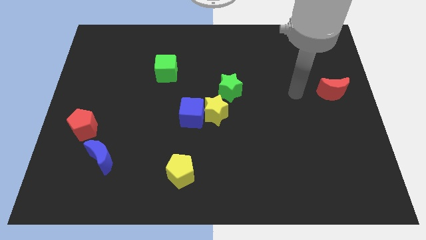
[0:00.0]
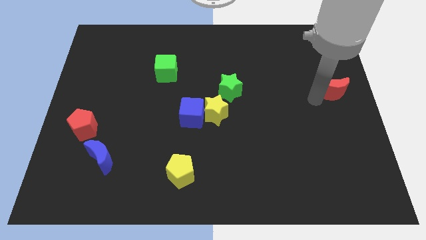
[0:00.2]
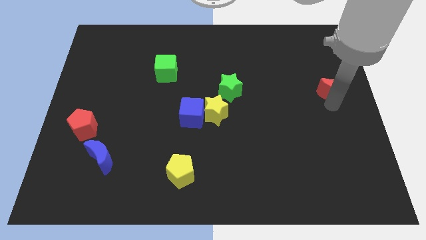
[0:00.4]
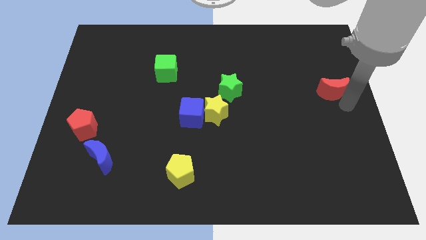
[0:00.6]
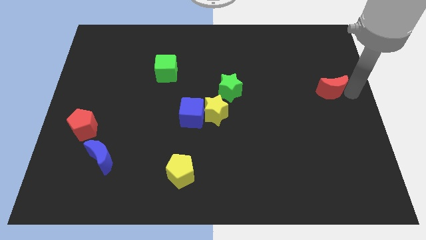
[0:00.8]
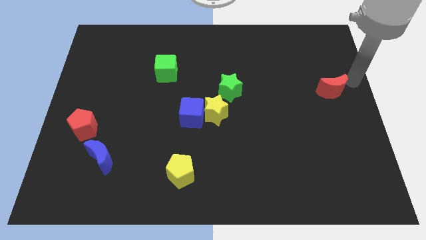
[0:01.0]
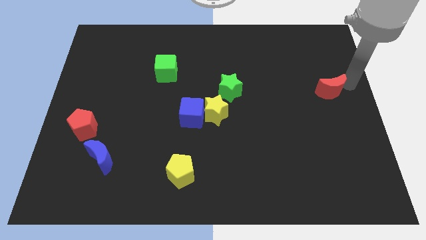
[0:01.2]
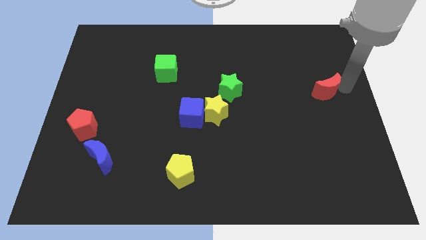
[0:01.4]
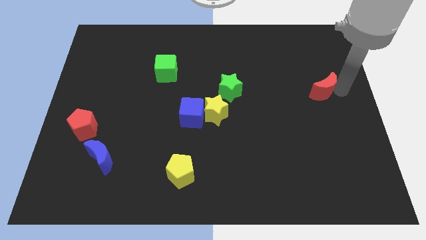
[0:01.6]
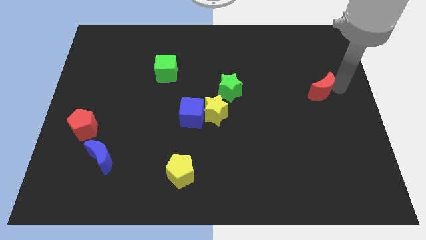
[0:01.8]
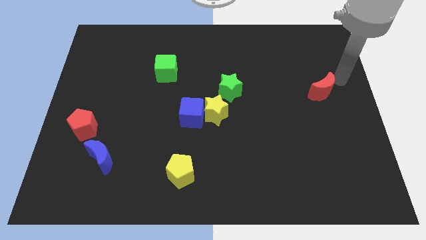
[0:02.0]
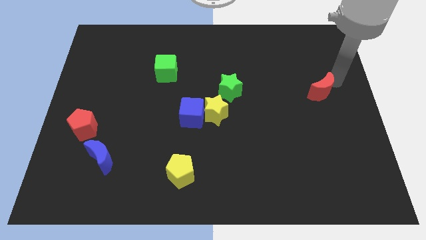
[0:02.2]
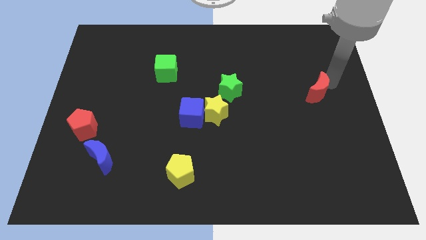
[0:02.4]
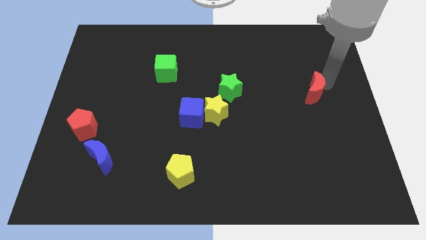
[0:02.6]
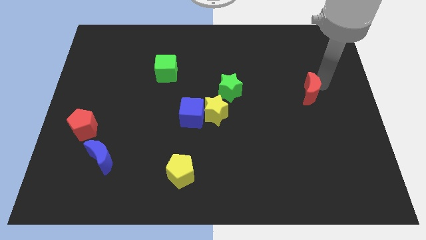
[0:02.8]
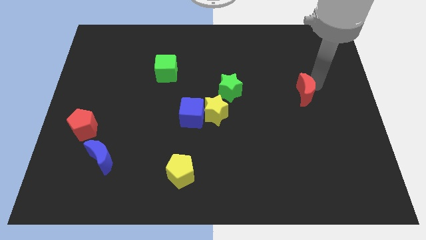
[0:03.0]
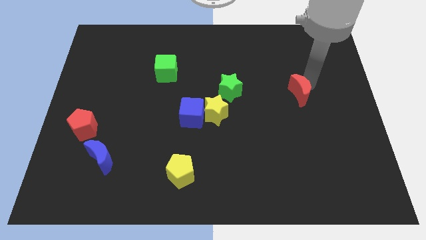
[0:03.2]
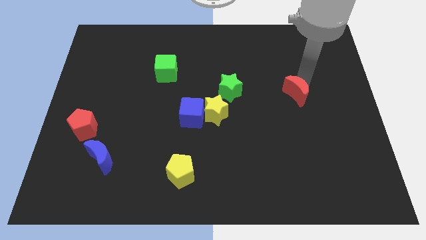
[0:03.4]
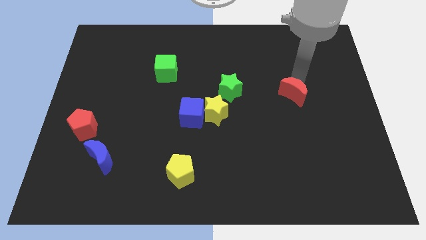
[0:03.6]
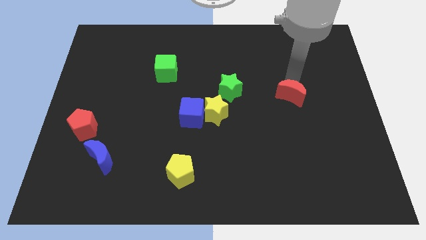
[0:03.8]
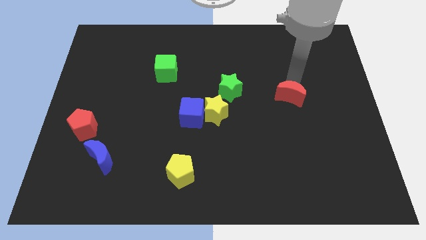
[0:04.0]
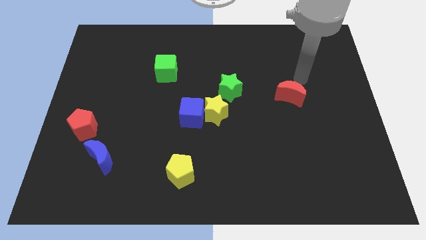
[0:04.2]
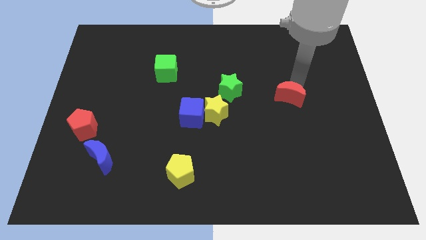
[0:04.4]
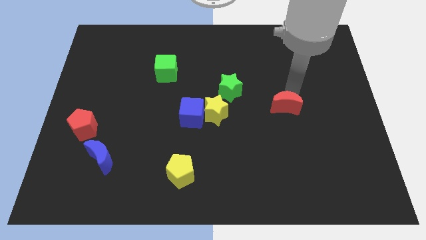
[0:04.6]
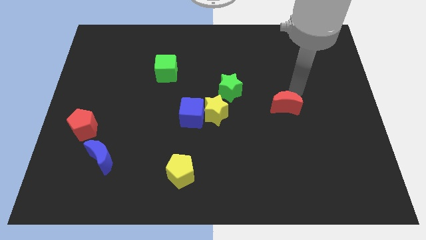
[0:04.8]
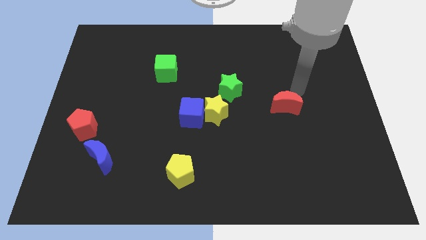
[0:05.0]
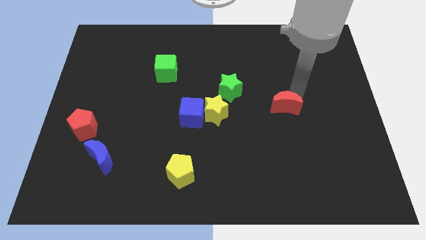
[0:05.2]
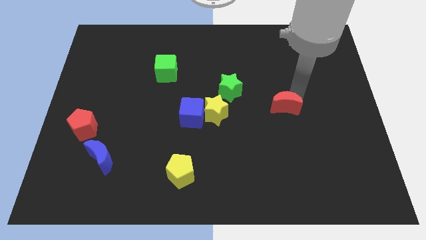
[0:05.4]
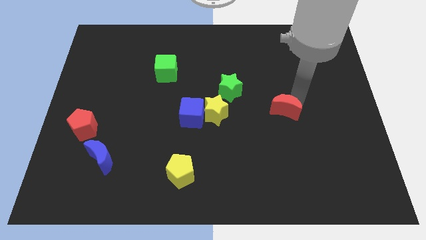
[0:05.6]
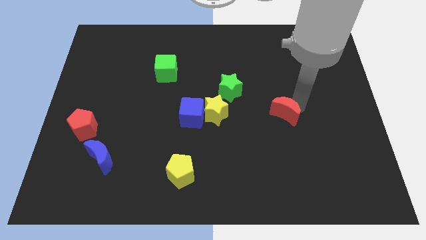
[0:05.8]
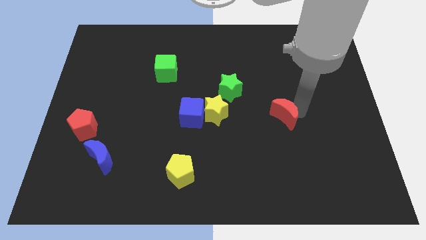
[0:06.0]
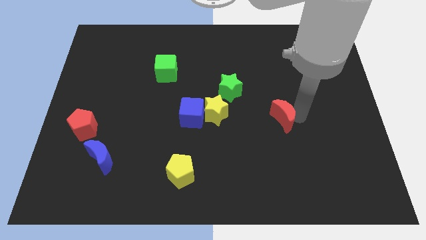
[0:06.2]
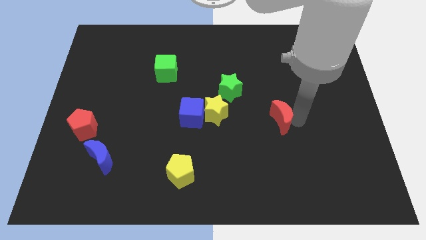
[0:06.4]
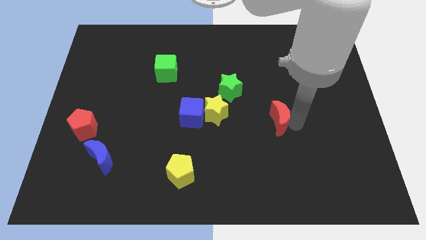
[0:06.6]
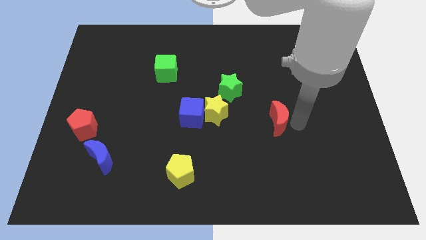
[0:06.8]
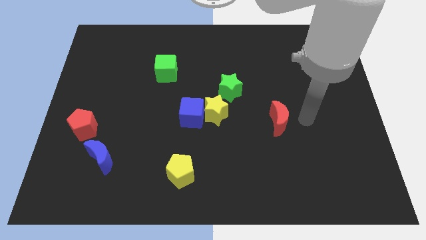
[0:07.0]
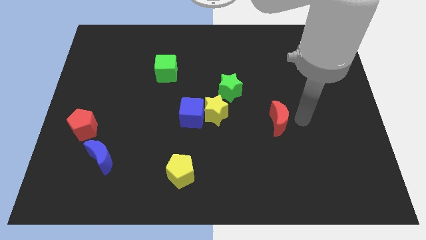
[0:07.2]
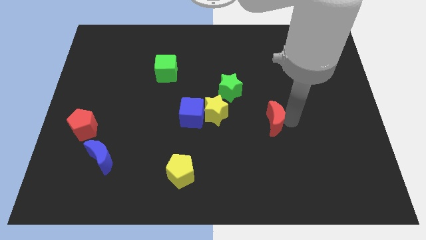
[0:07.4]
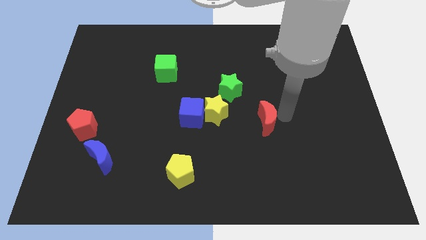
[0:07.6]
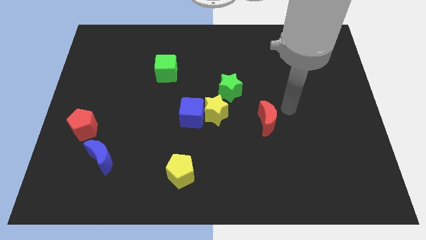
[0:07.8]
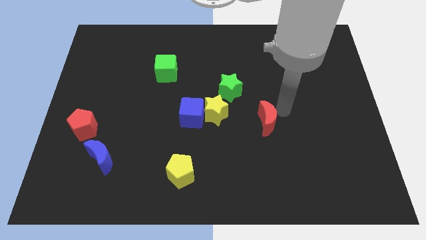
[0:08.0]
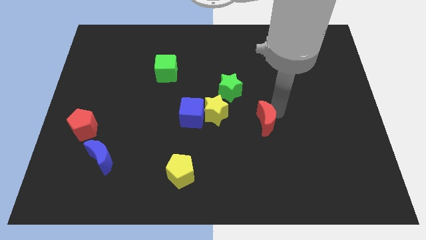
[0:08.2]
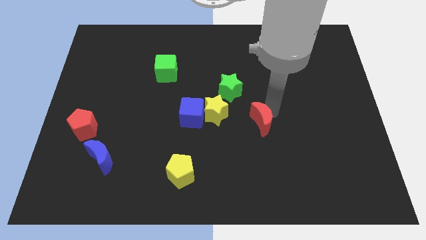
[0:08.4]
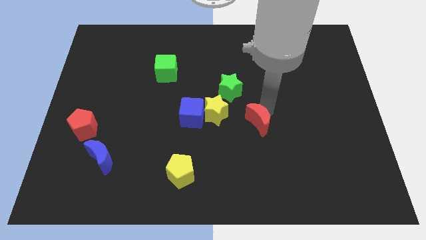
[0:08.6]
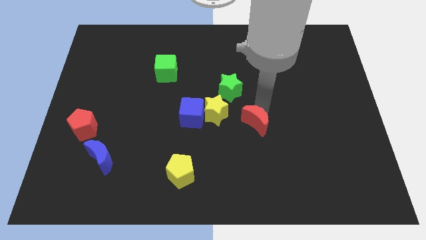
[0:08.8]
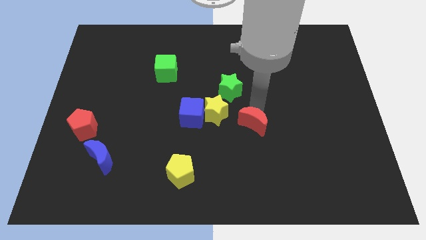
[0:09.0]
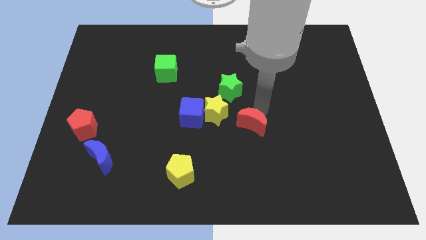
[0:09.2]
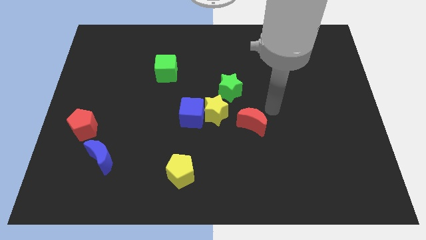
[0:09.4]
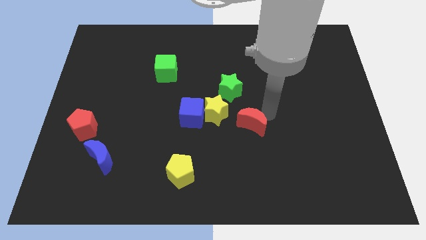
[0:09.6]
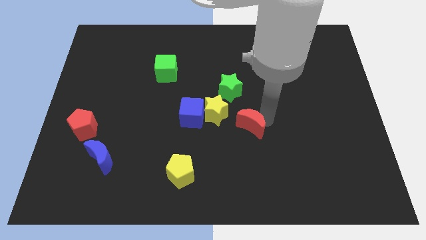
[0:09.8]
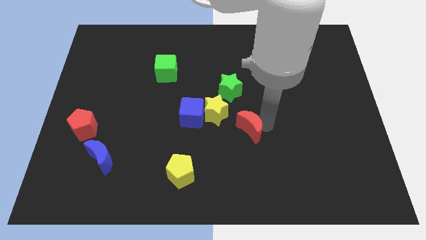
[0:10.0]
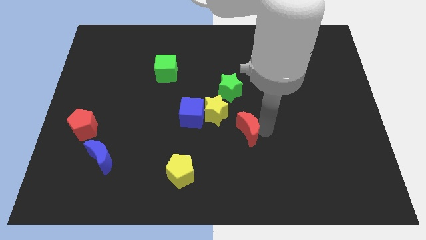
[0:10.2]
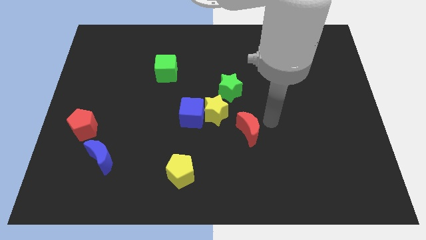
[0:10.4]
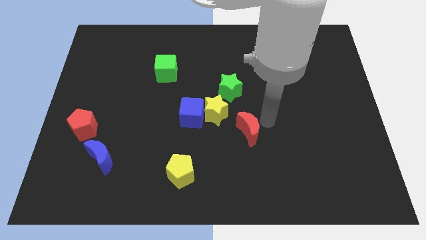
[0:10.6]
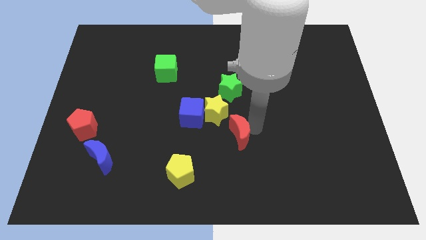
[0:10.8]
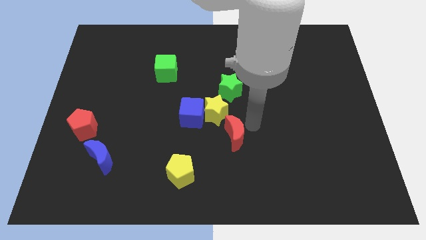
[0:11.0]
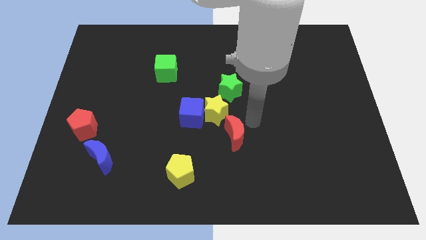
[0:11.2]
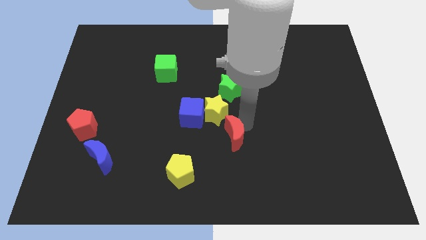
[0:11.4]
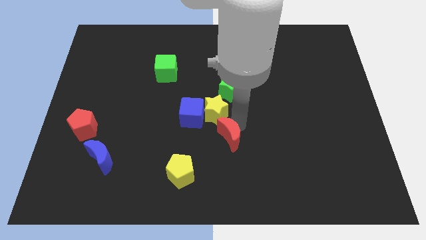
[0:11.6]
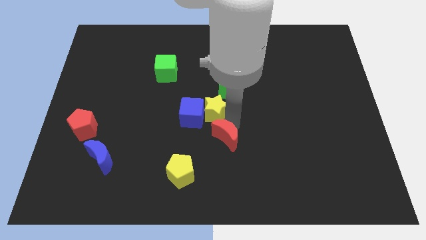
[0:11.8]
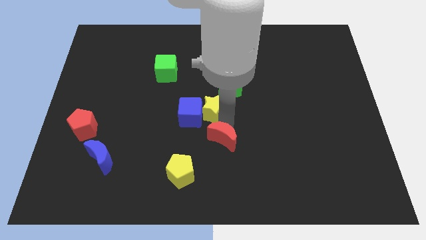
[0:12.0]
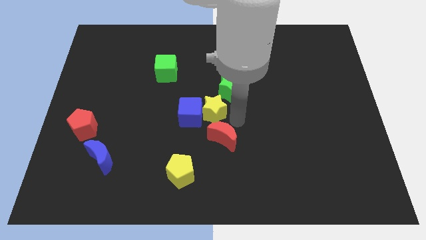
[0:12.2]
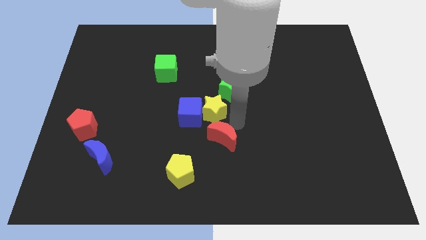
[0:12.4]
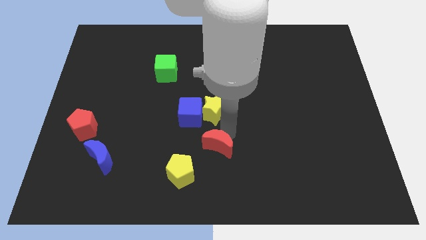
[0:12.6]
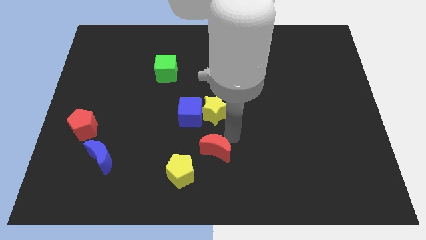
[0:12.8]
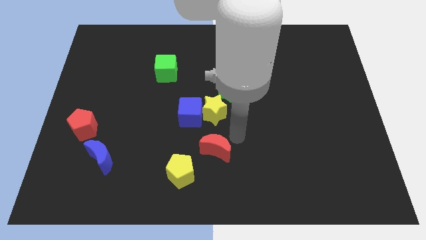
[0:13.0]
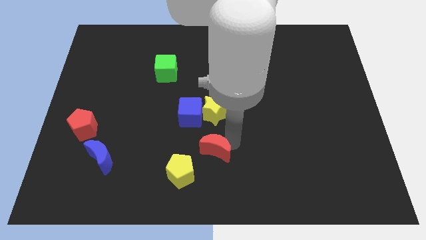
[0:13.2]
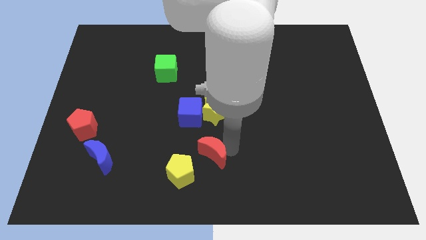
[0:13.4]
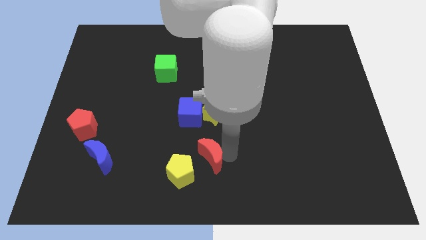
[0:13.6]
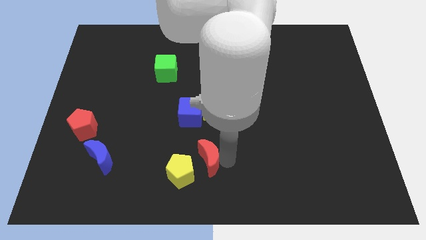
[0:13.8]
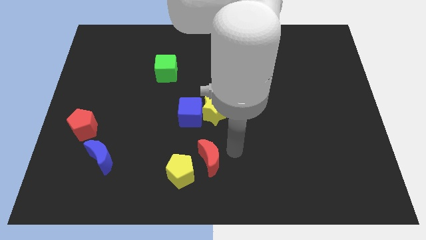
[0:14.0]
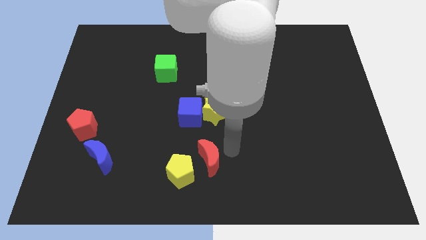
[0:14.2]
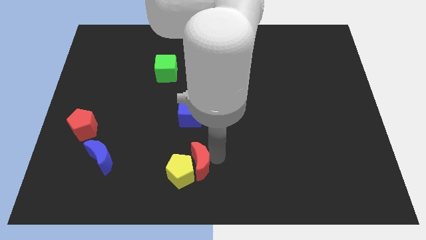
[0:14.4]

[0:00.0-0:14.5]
move the red moon close to the yellow pentagon
